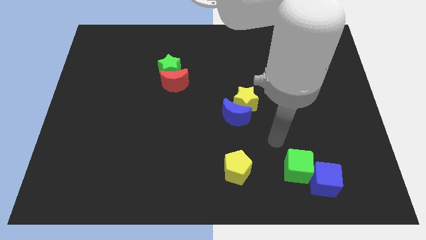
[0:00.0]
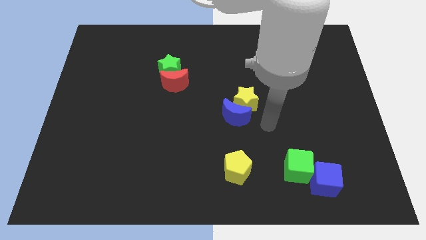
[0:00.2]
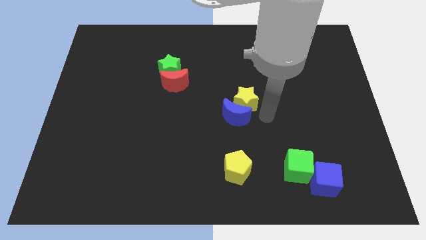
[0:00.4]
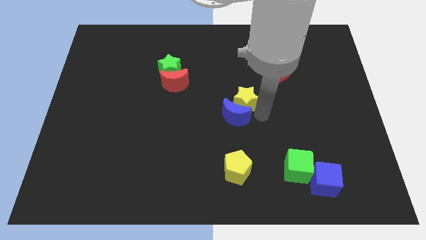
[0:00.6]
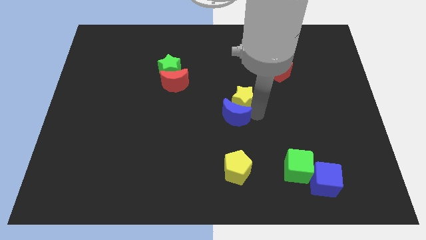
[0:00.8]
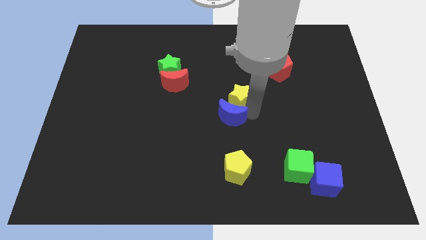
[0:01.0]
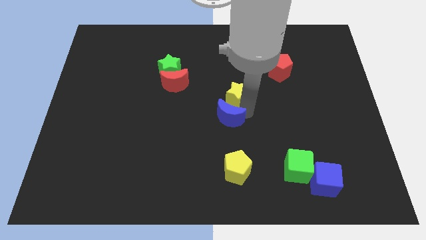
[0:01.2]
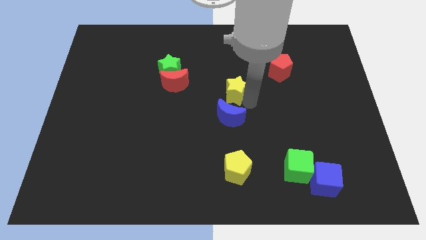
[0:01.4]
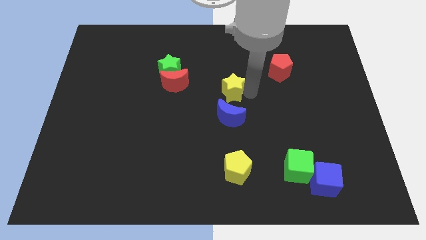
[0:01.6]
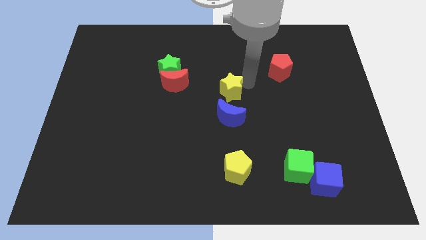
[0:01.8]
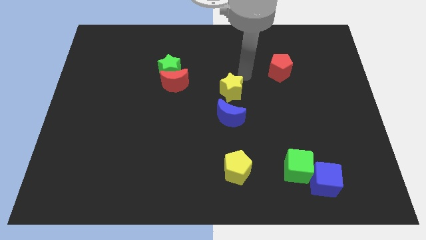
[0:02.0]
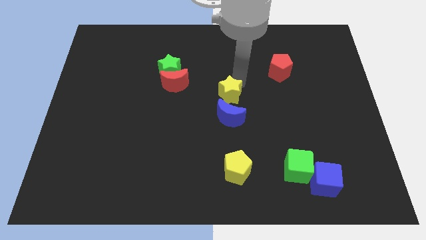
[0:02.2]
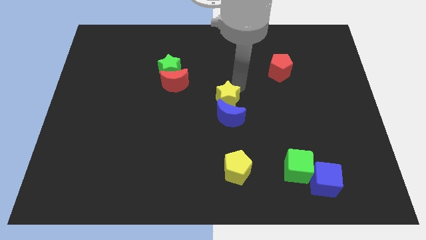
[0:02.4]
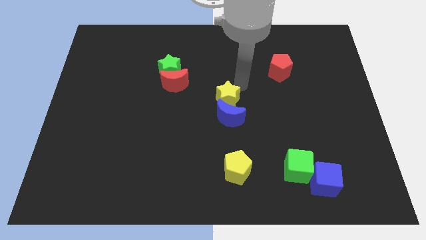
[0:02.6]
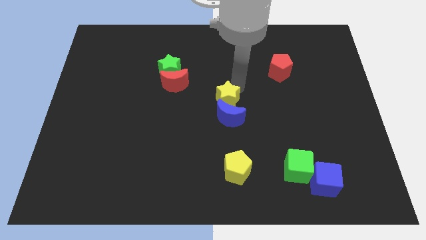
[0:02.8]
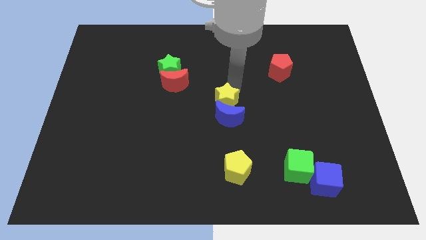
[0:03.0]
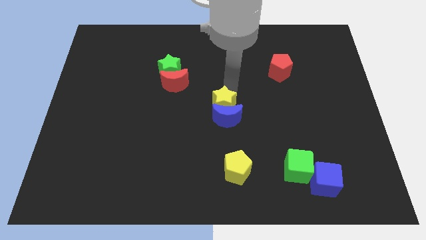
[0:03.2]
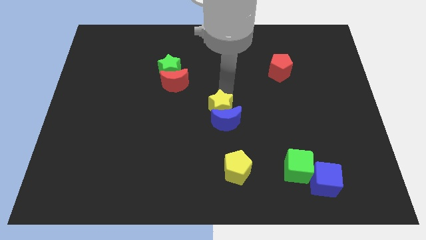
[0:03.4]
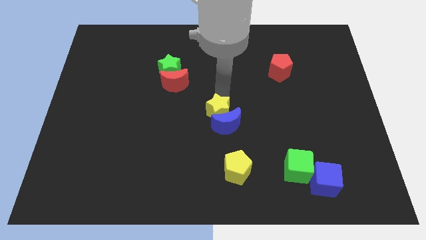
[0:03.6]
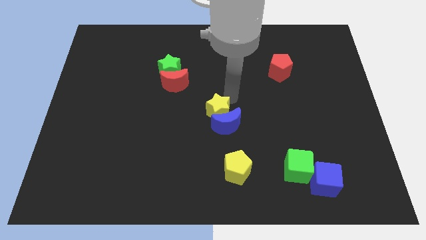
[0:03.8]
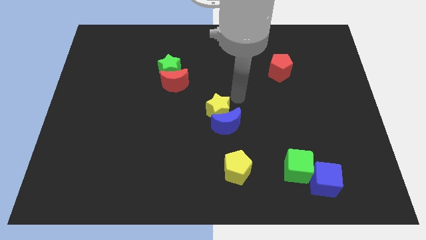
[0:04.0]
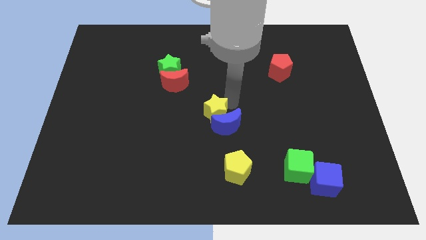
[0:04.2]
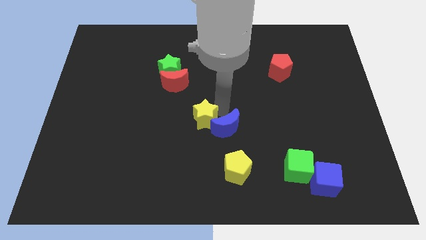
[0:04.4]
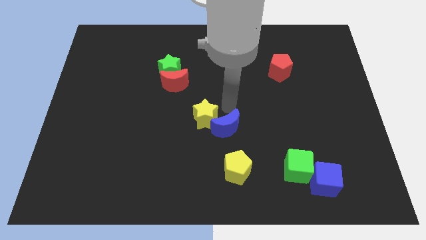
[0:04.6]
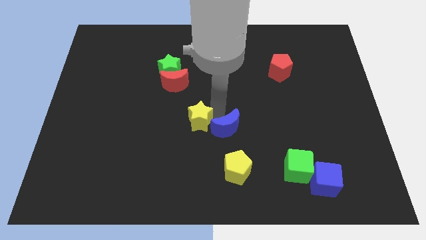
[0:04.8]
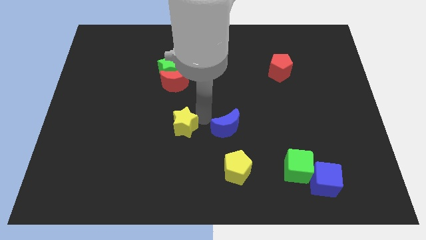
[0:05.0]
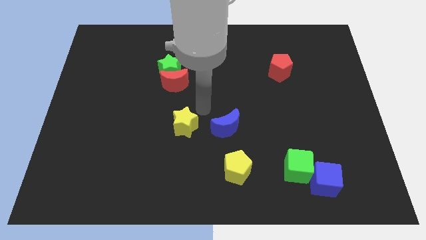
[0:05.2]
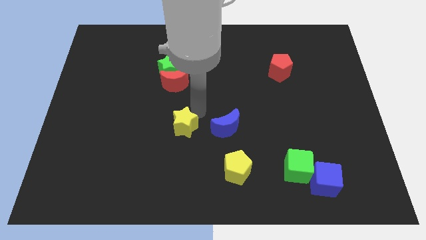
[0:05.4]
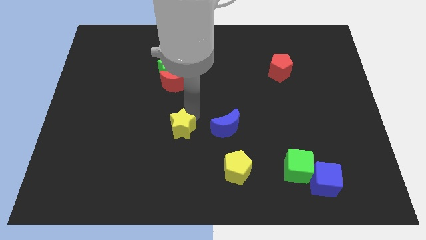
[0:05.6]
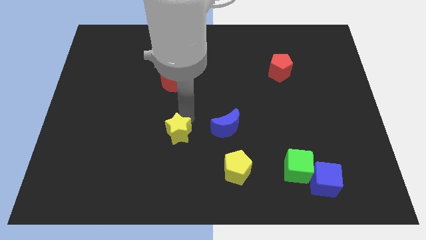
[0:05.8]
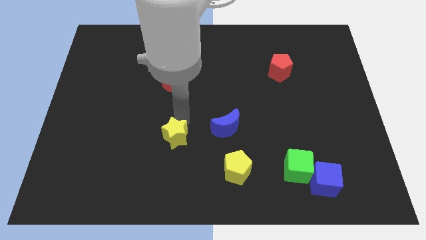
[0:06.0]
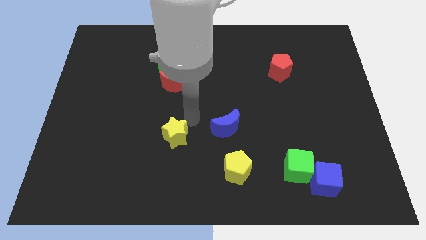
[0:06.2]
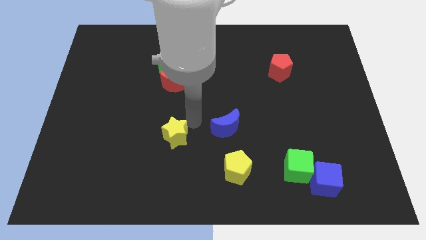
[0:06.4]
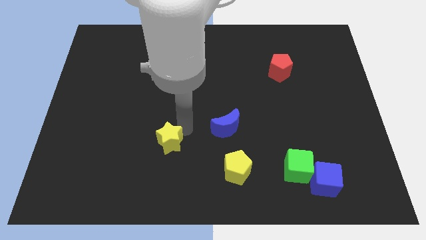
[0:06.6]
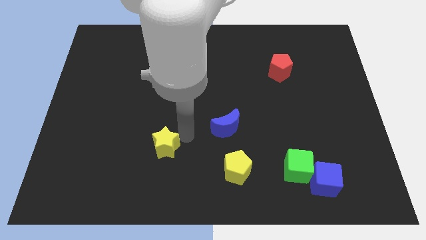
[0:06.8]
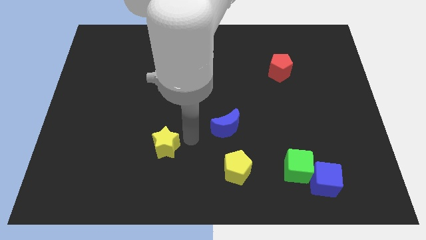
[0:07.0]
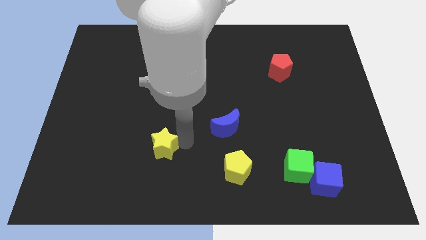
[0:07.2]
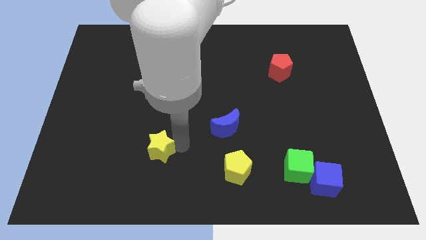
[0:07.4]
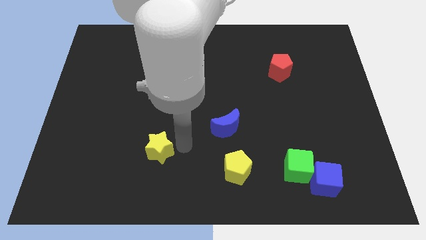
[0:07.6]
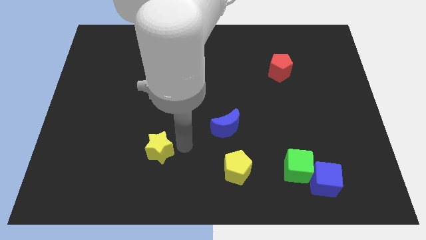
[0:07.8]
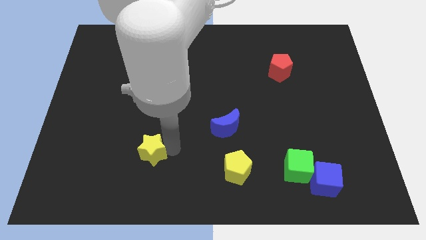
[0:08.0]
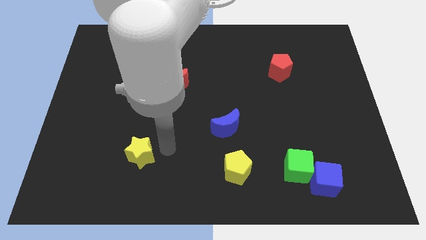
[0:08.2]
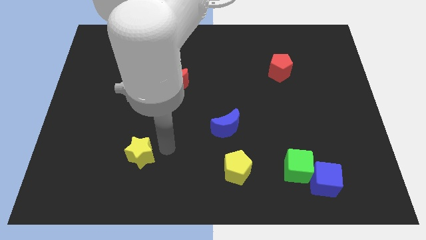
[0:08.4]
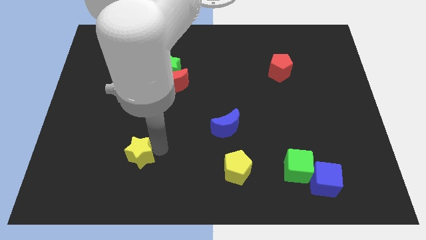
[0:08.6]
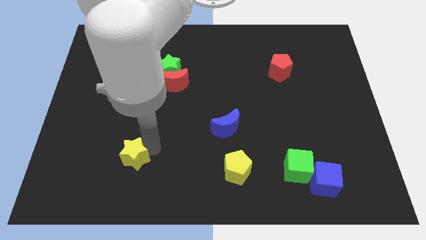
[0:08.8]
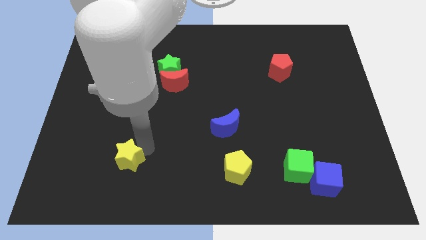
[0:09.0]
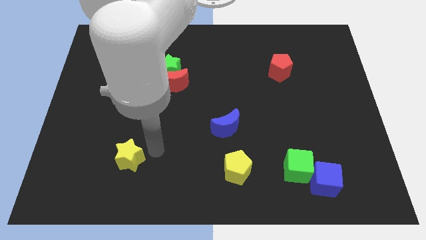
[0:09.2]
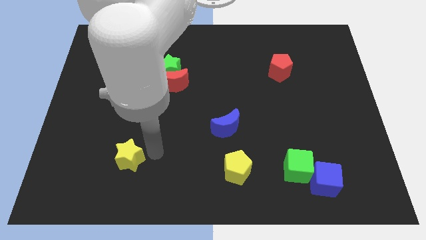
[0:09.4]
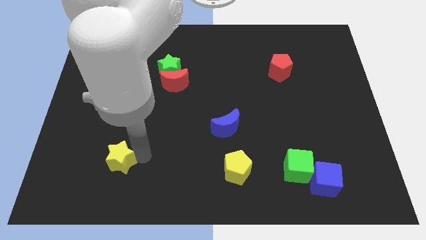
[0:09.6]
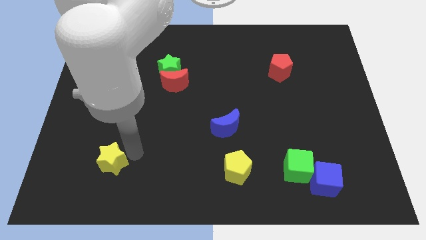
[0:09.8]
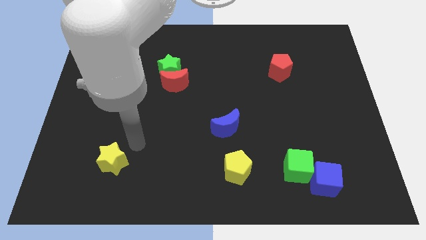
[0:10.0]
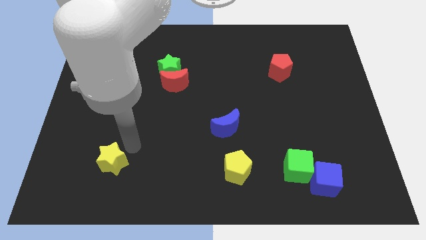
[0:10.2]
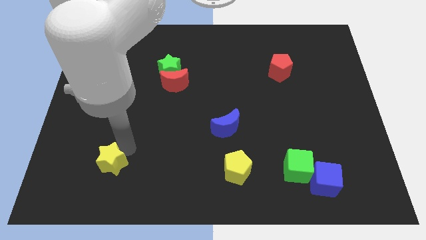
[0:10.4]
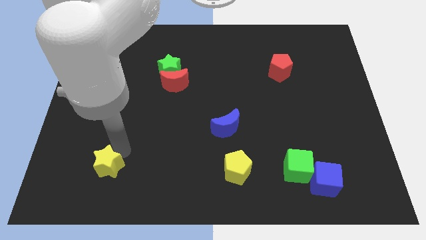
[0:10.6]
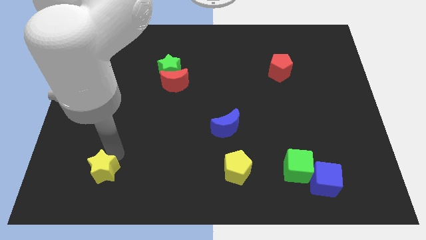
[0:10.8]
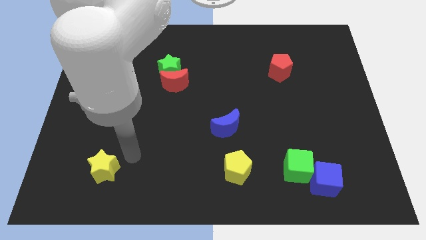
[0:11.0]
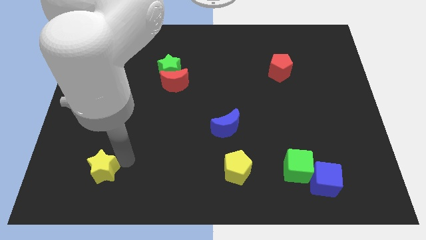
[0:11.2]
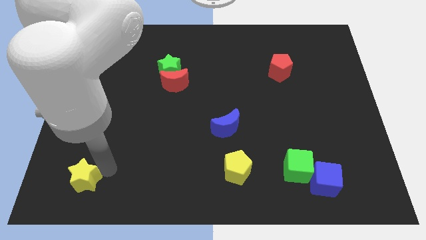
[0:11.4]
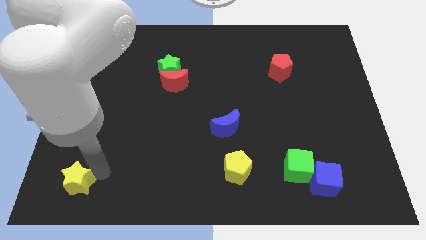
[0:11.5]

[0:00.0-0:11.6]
move the yellow star to the bottom left

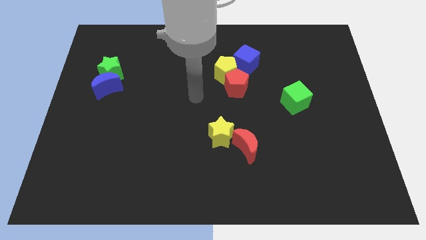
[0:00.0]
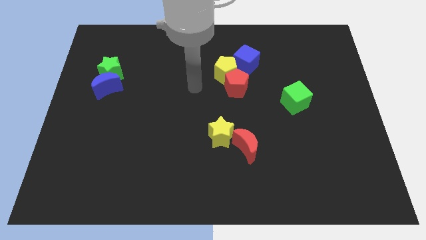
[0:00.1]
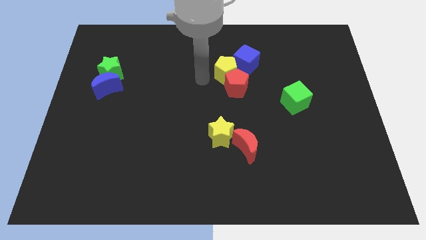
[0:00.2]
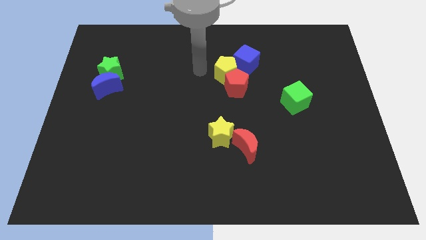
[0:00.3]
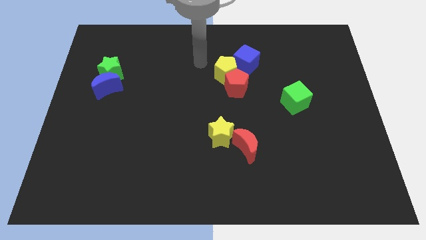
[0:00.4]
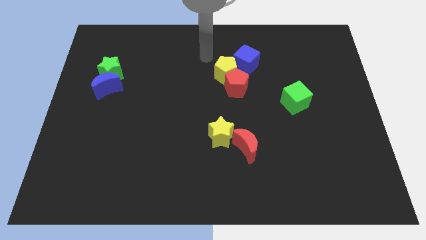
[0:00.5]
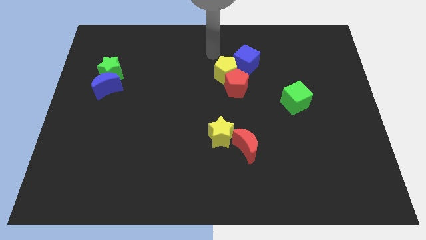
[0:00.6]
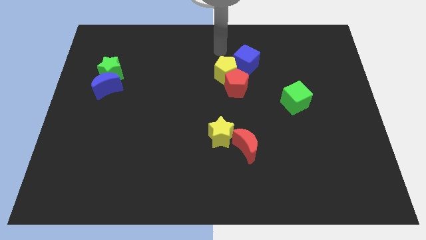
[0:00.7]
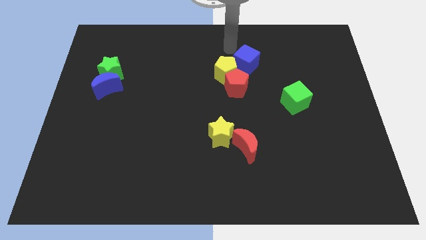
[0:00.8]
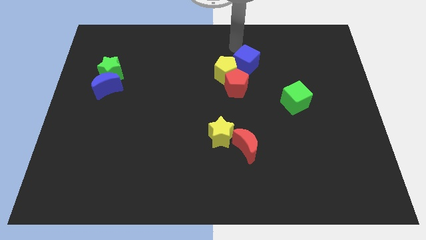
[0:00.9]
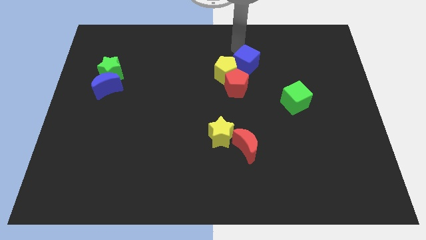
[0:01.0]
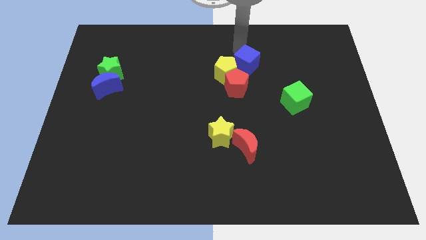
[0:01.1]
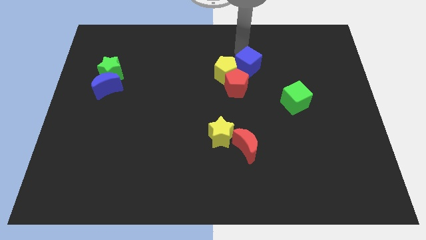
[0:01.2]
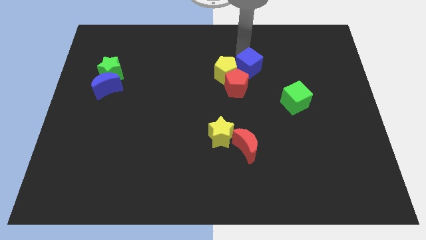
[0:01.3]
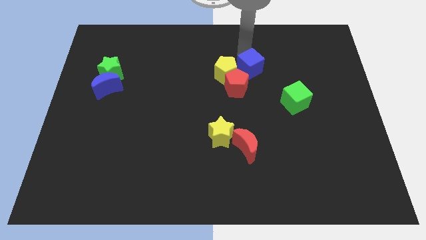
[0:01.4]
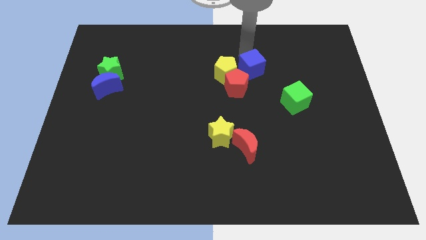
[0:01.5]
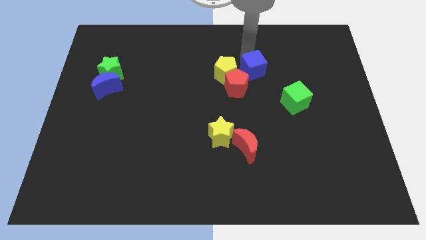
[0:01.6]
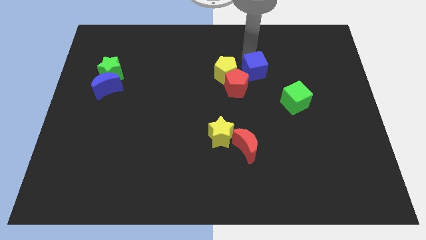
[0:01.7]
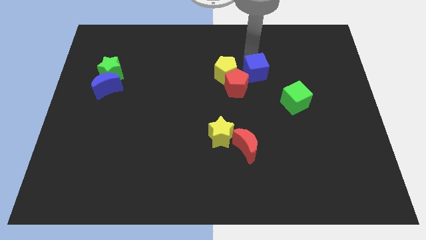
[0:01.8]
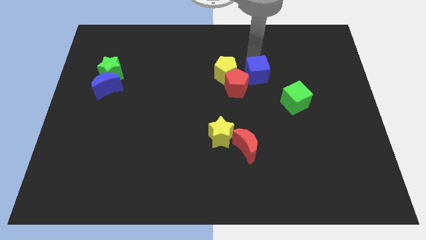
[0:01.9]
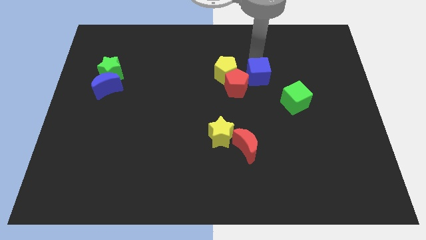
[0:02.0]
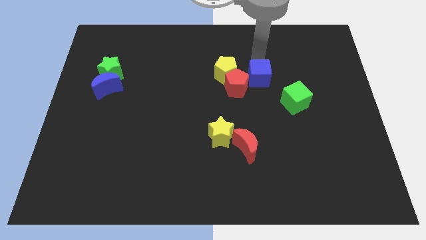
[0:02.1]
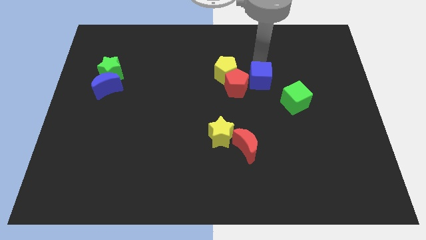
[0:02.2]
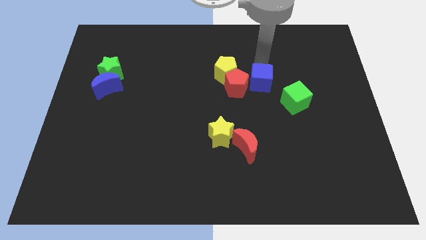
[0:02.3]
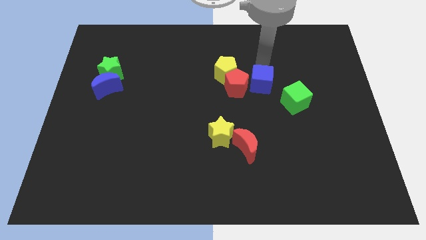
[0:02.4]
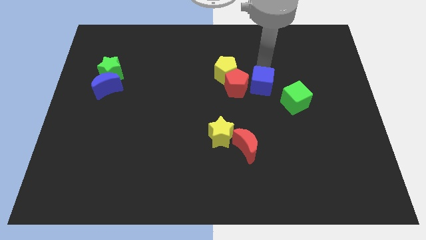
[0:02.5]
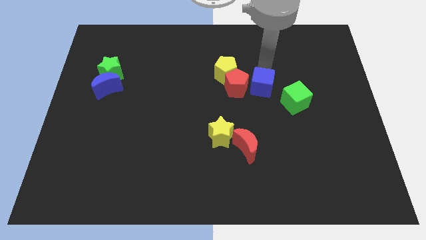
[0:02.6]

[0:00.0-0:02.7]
move the blue cube to the center
